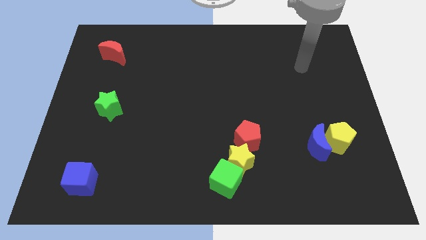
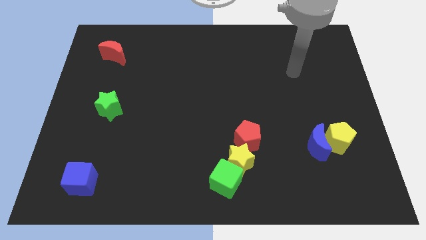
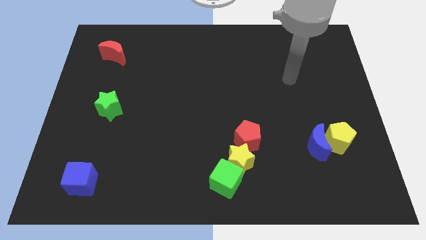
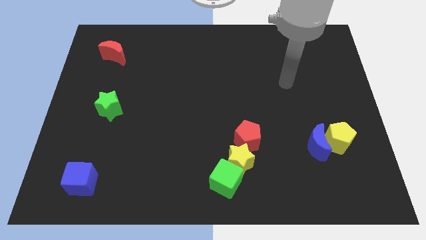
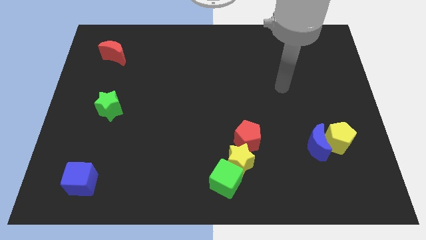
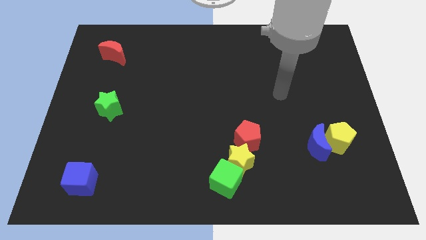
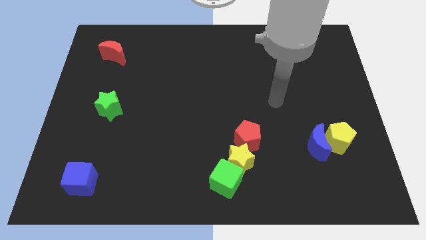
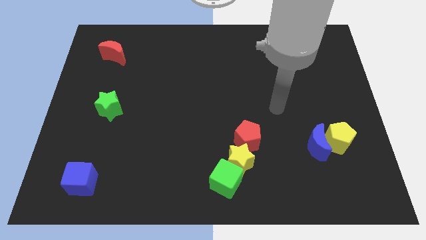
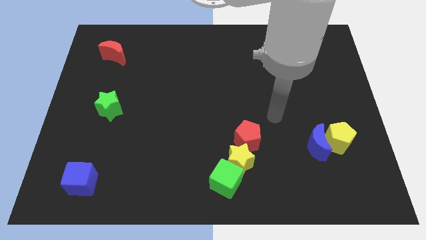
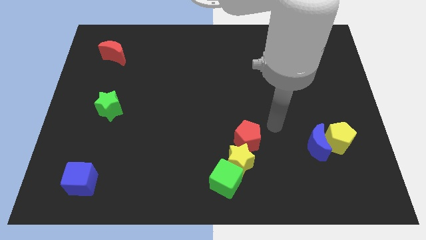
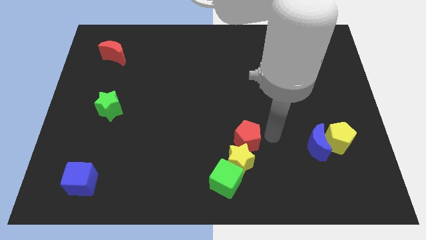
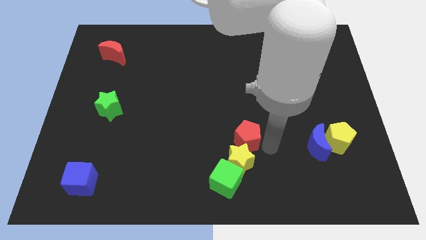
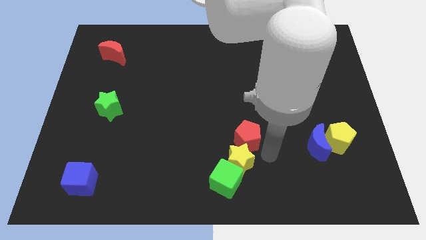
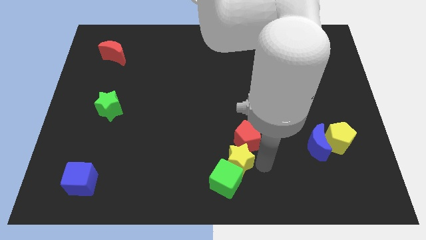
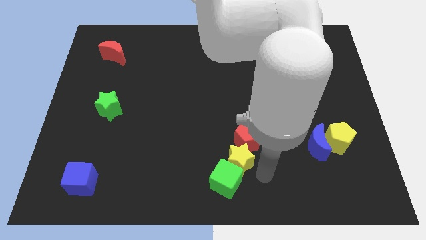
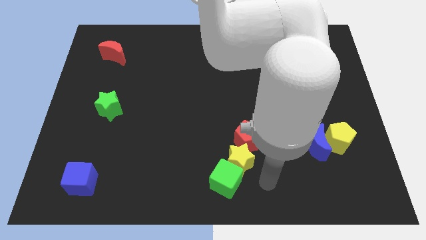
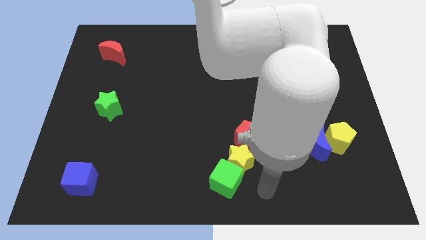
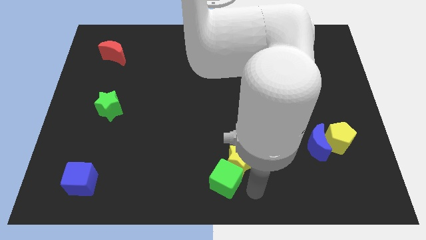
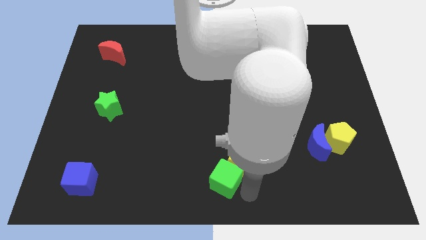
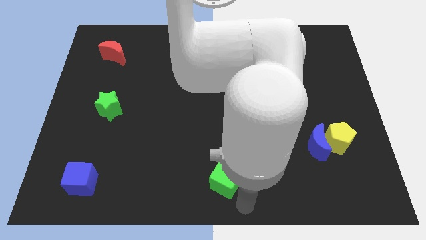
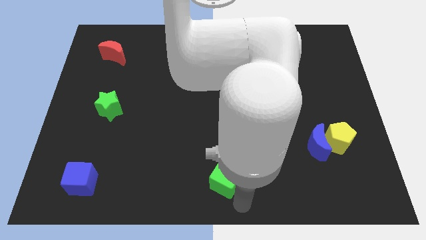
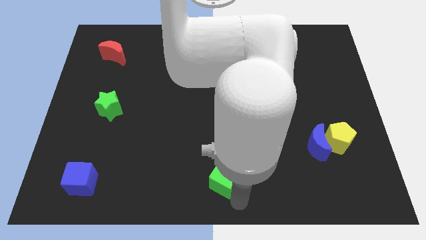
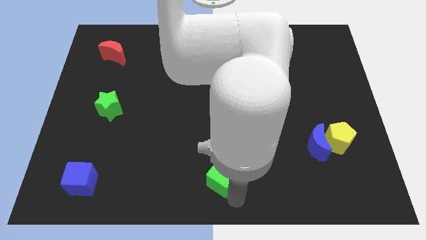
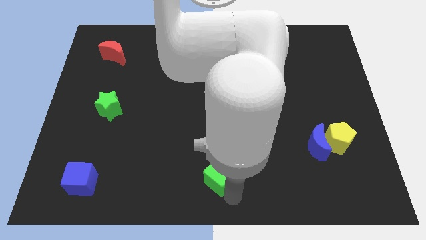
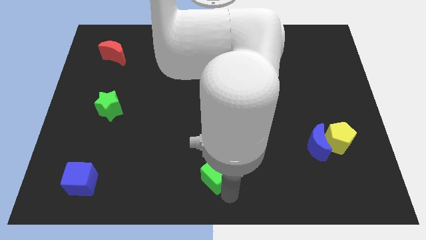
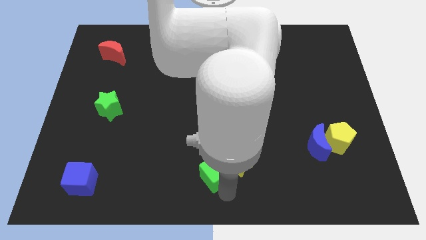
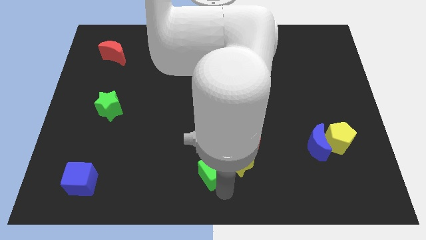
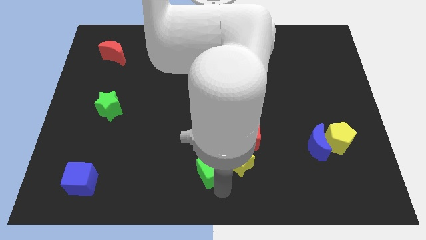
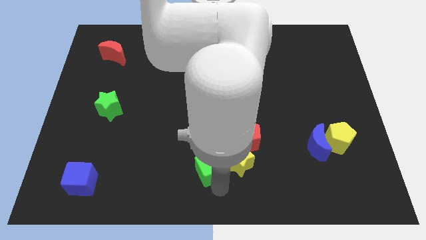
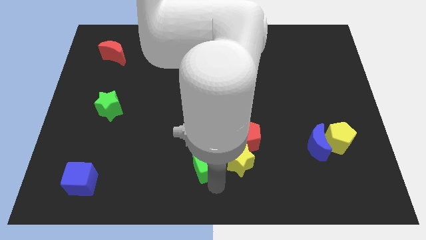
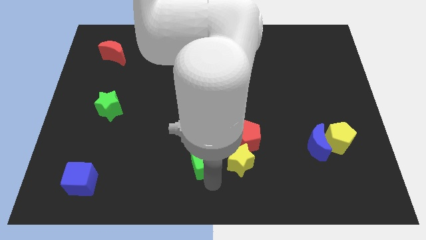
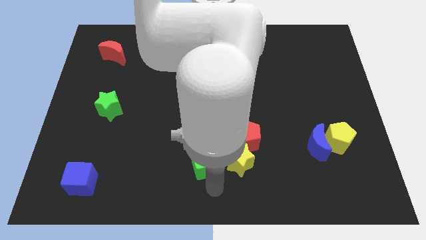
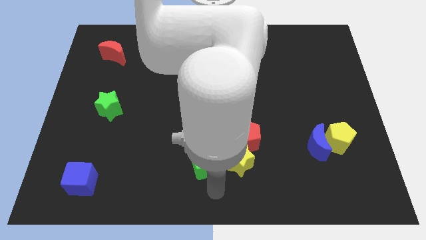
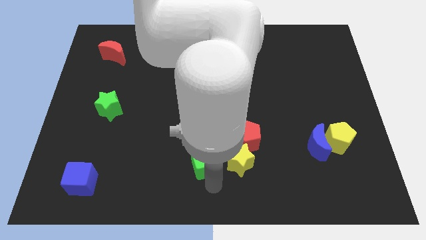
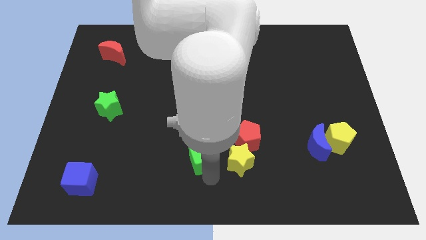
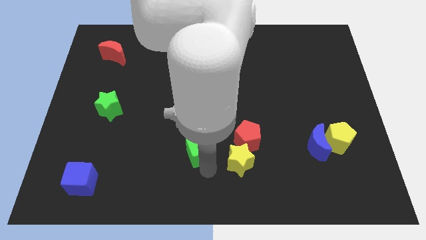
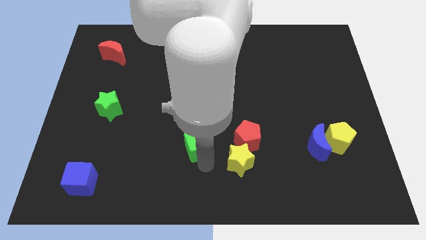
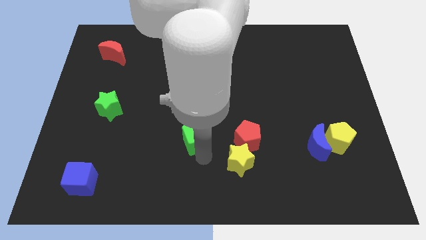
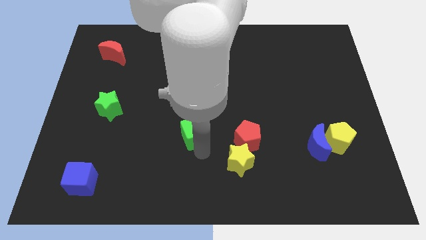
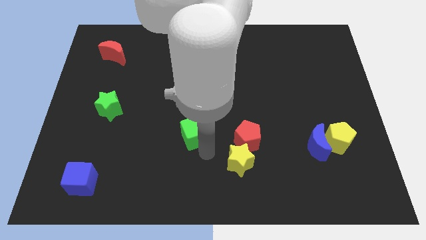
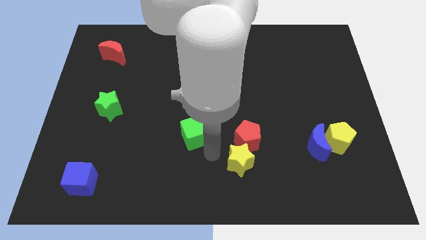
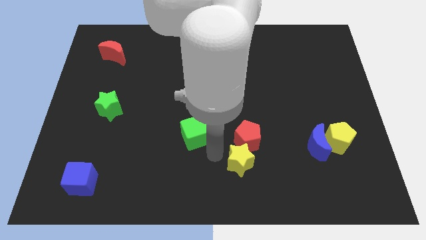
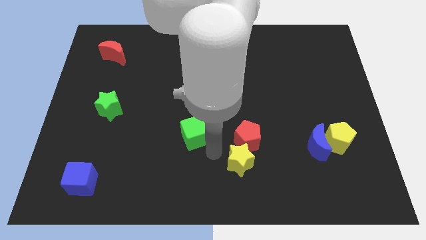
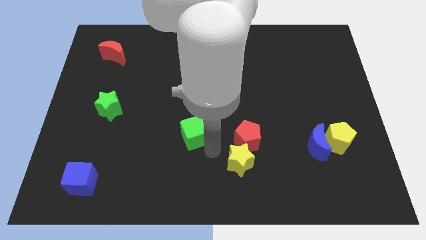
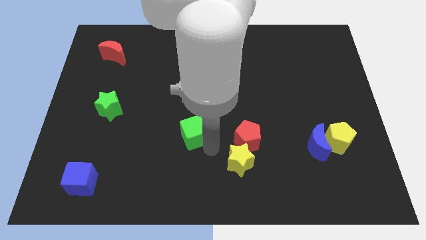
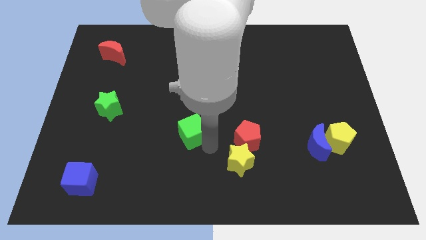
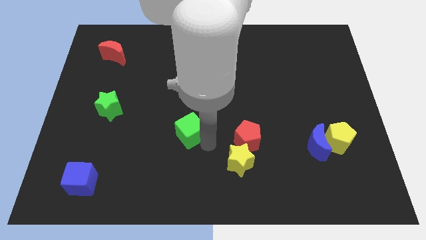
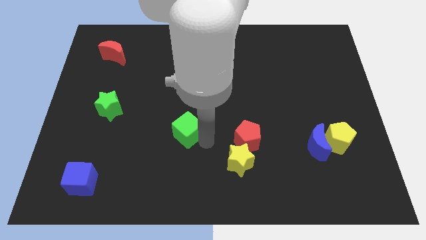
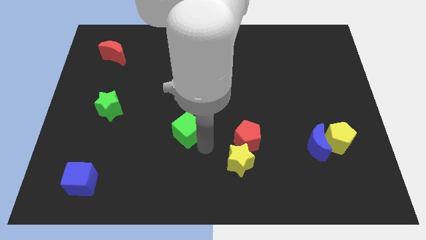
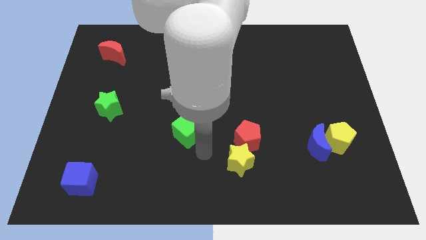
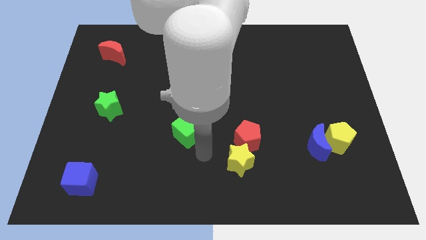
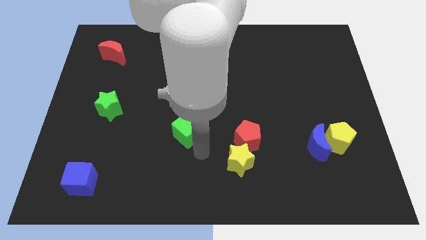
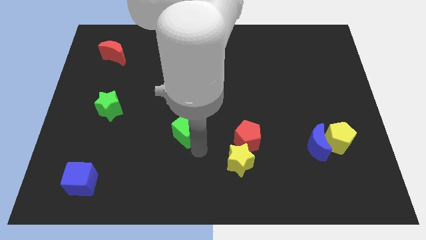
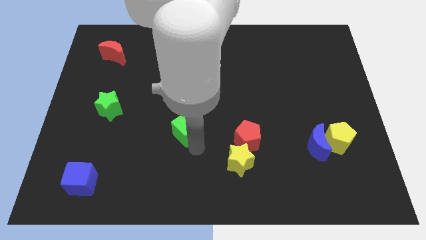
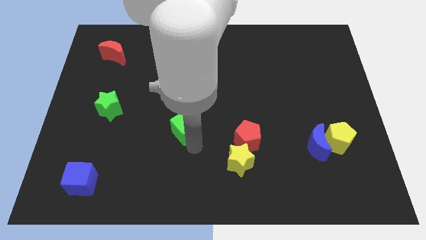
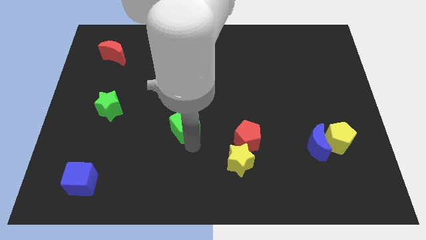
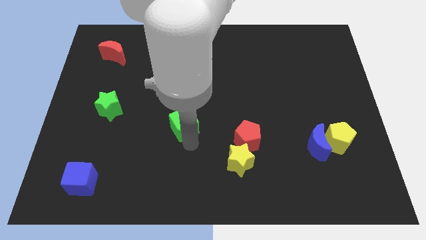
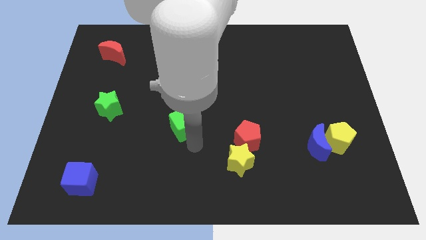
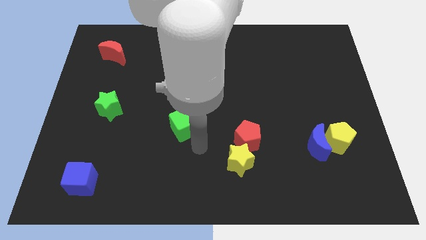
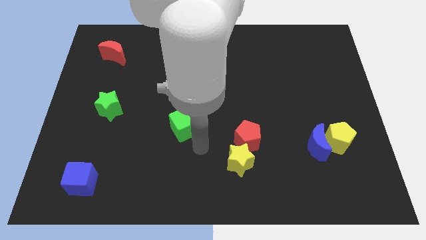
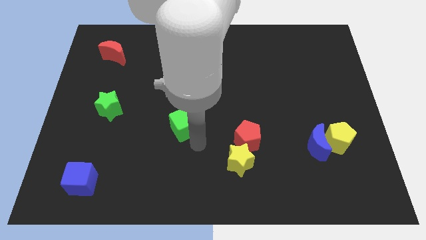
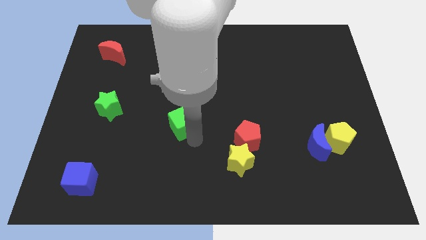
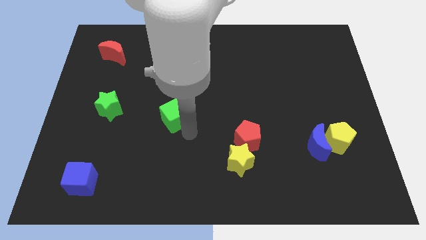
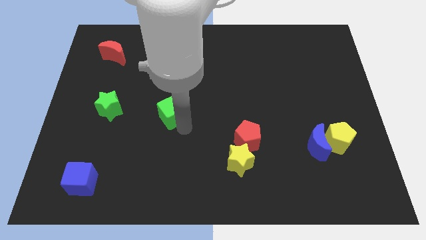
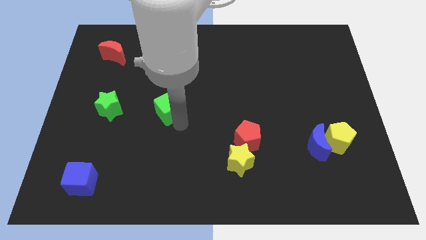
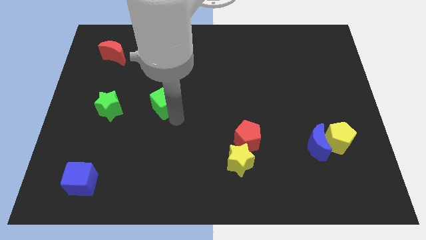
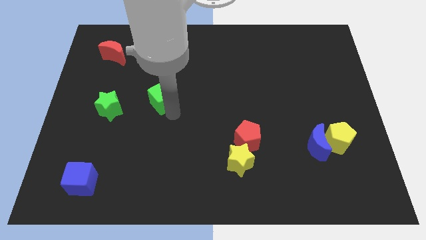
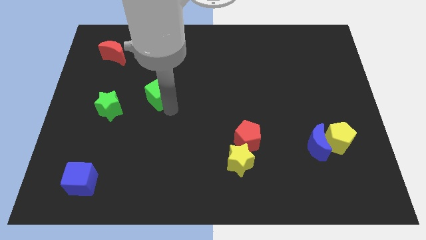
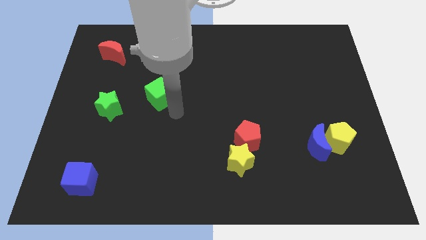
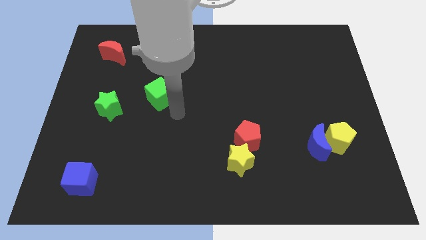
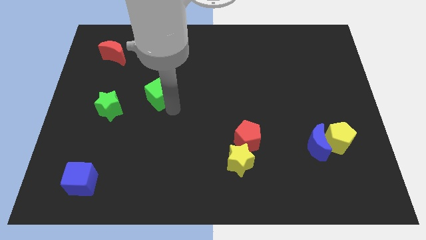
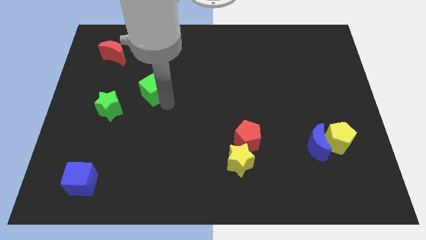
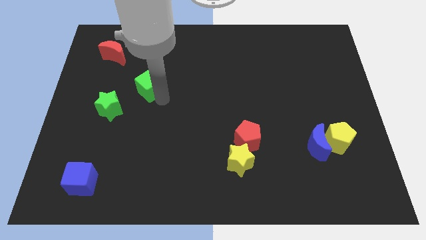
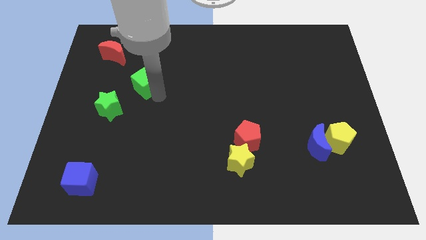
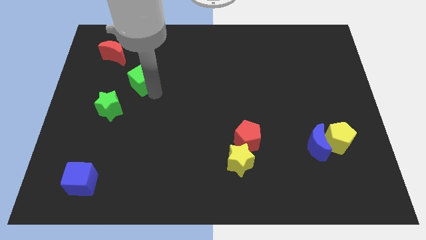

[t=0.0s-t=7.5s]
move the green cube to the bottom right of the red moon
